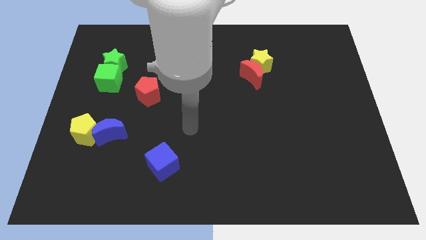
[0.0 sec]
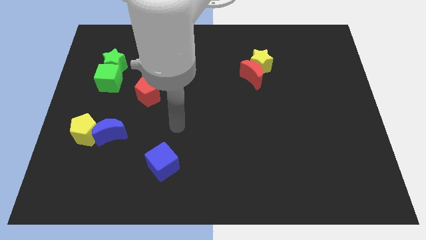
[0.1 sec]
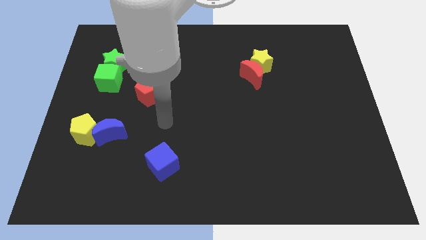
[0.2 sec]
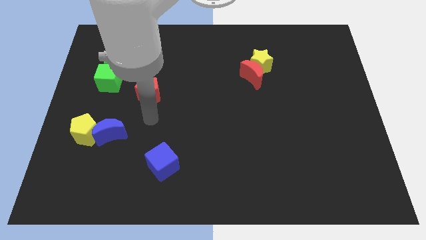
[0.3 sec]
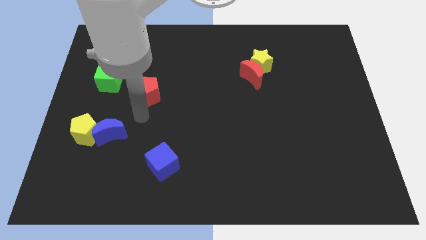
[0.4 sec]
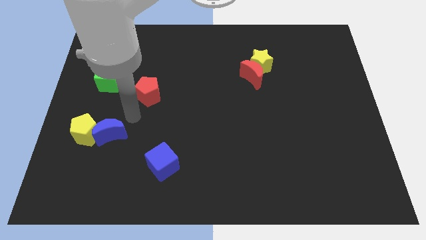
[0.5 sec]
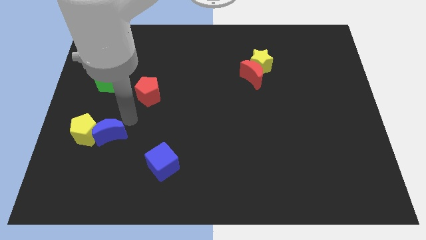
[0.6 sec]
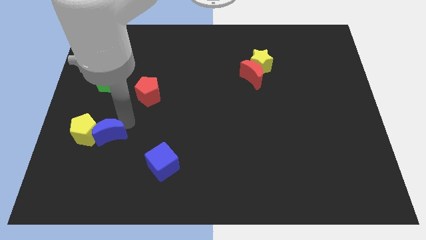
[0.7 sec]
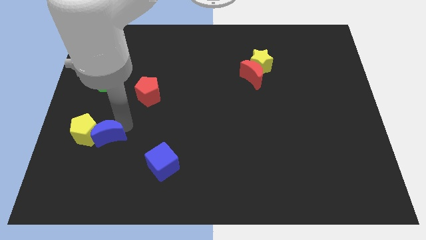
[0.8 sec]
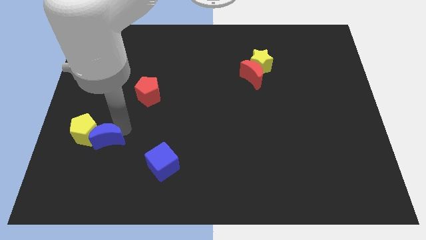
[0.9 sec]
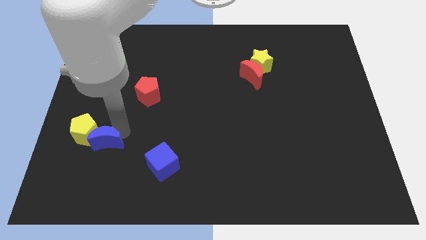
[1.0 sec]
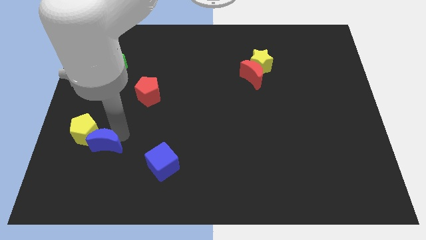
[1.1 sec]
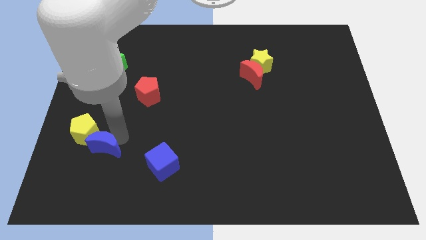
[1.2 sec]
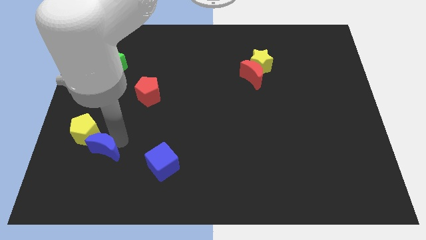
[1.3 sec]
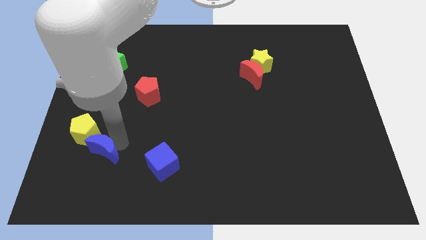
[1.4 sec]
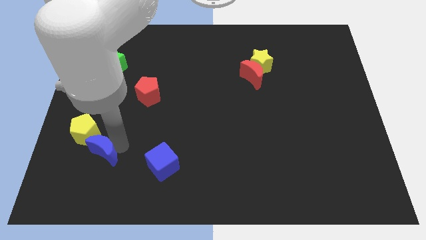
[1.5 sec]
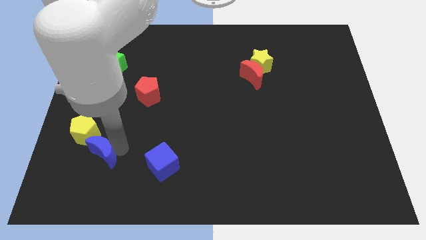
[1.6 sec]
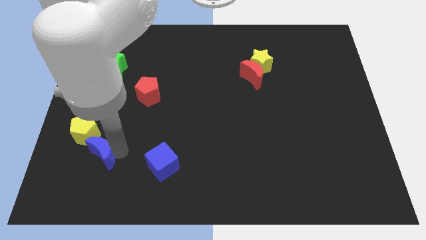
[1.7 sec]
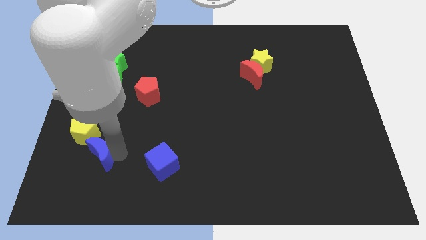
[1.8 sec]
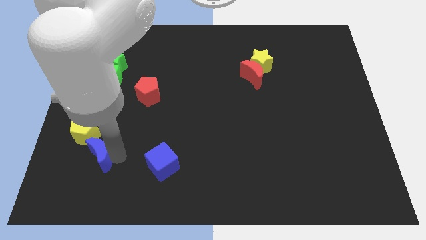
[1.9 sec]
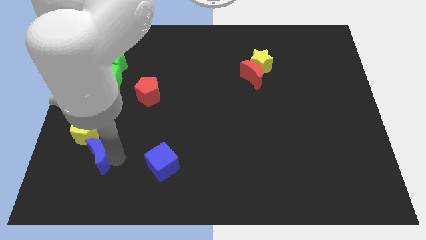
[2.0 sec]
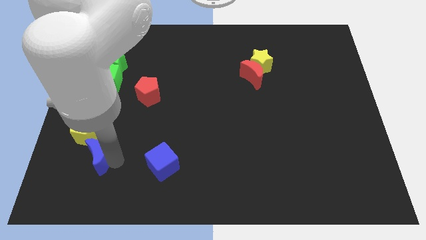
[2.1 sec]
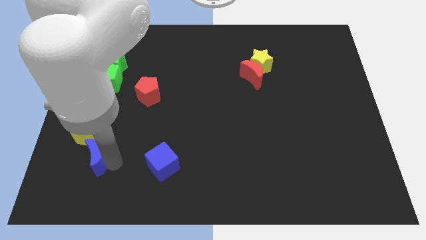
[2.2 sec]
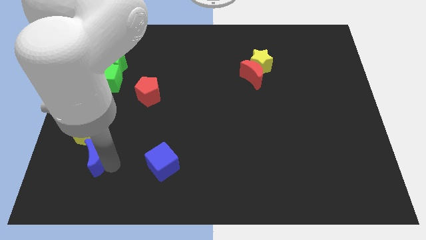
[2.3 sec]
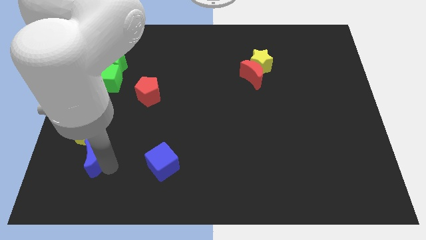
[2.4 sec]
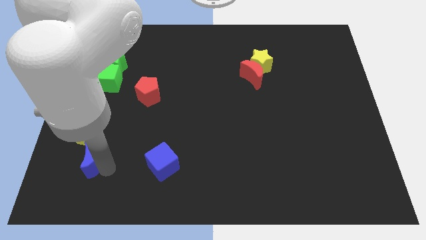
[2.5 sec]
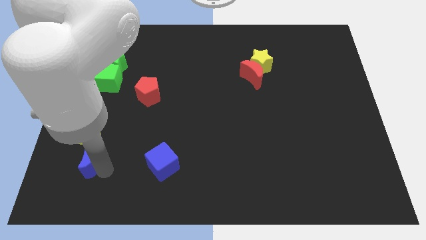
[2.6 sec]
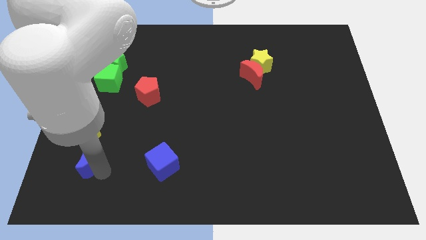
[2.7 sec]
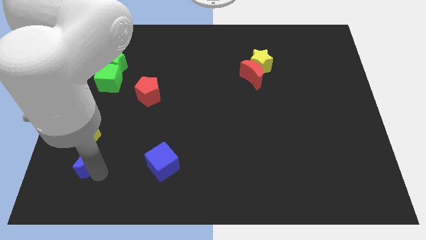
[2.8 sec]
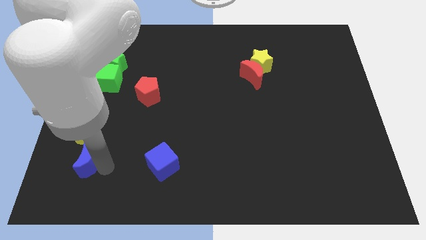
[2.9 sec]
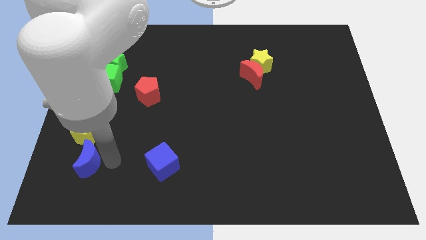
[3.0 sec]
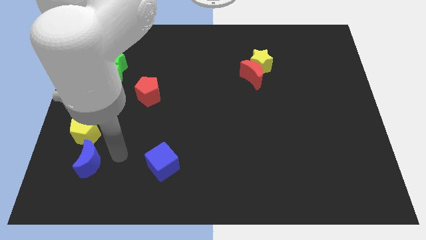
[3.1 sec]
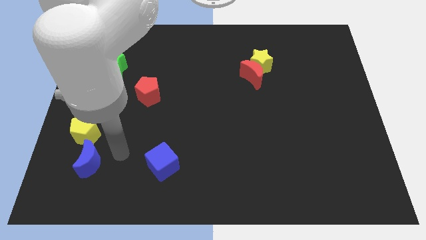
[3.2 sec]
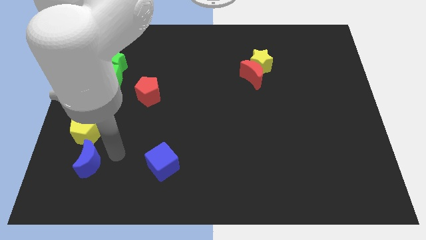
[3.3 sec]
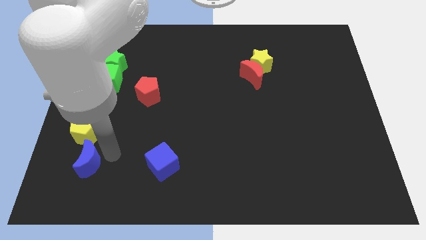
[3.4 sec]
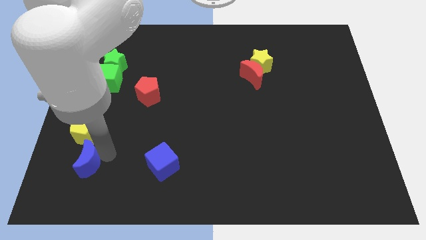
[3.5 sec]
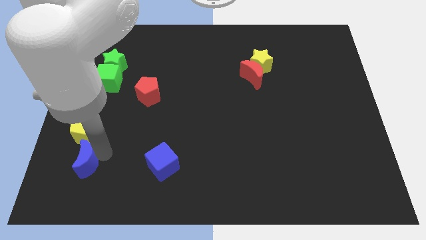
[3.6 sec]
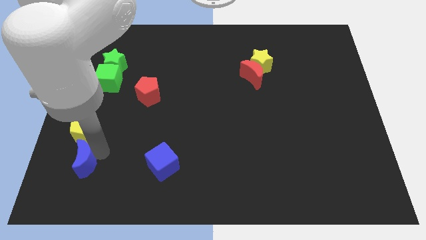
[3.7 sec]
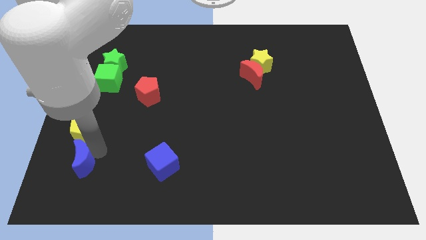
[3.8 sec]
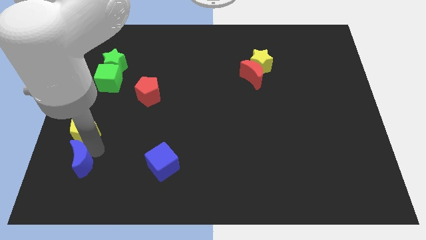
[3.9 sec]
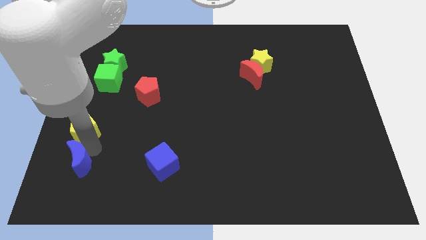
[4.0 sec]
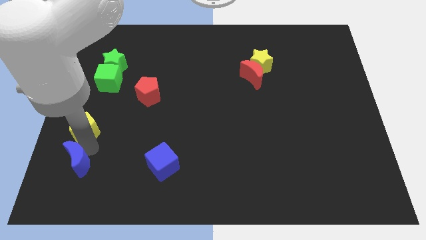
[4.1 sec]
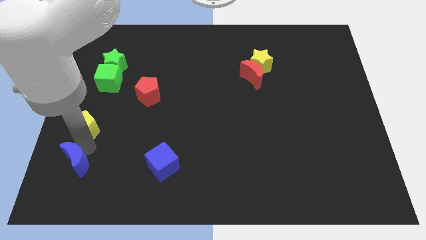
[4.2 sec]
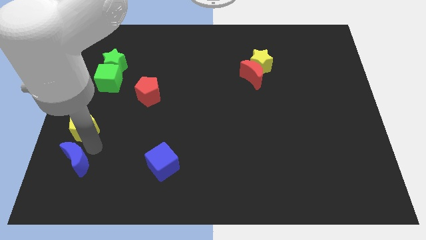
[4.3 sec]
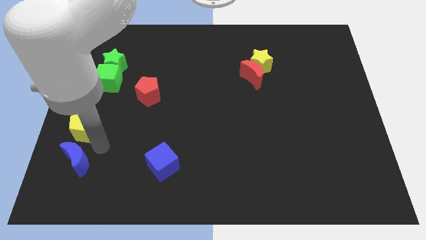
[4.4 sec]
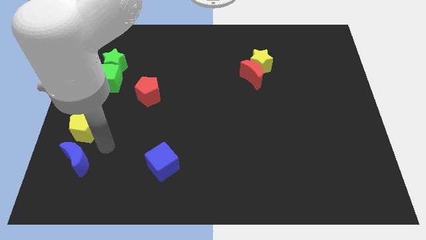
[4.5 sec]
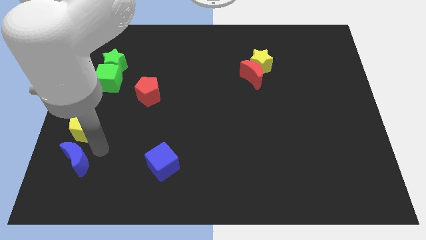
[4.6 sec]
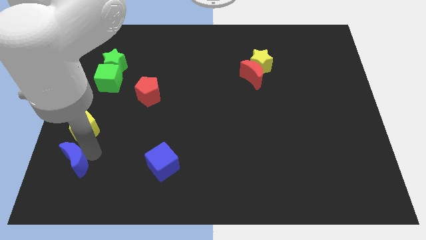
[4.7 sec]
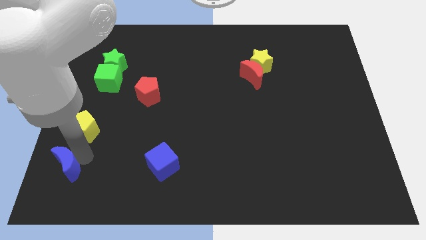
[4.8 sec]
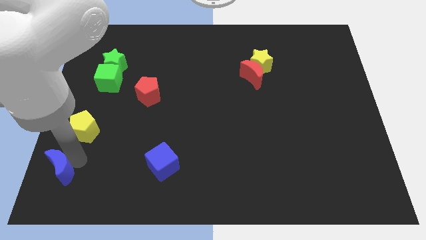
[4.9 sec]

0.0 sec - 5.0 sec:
slide the blue moon to the bottom left
